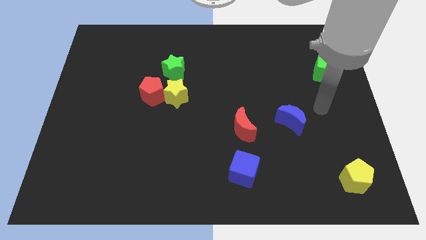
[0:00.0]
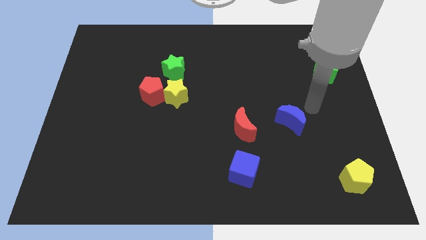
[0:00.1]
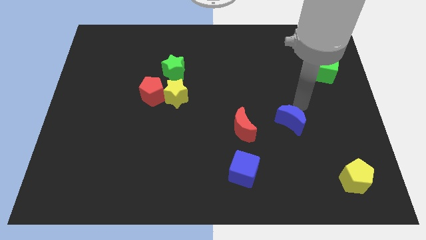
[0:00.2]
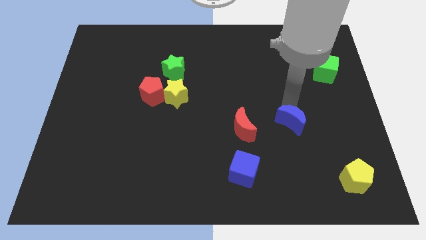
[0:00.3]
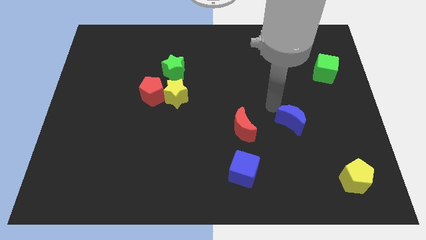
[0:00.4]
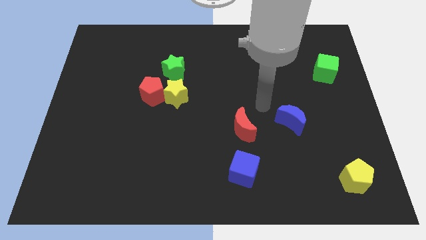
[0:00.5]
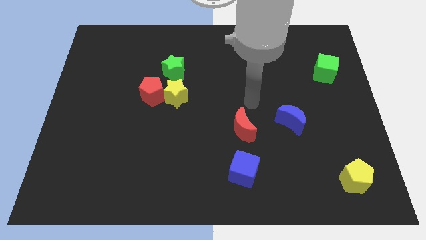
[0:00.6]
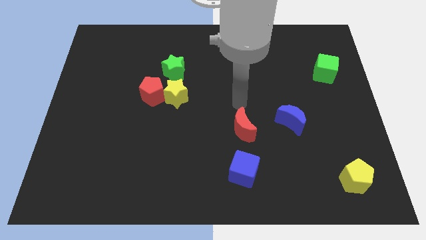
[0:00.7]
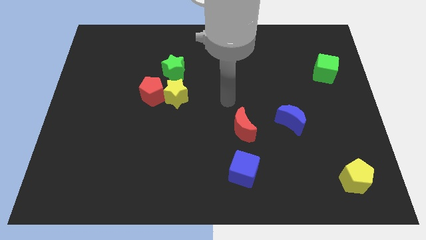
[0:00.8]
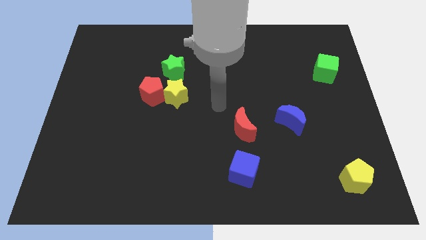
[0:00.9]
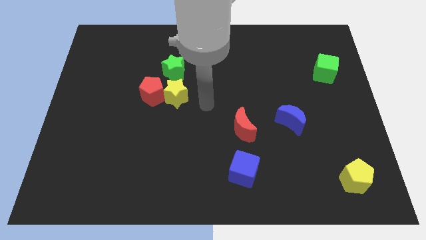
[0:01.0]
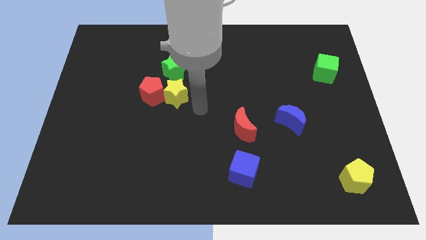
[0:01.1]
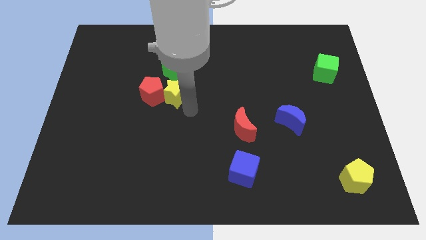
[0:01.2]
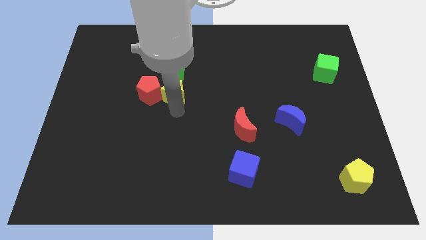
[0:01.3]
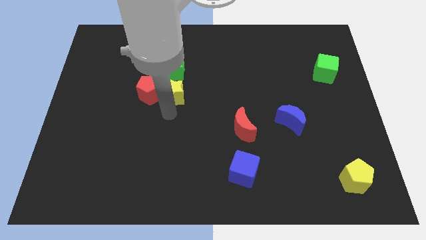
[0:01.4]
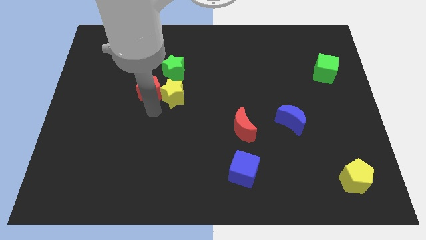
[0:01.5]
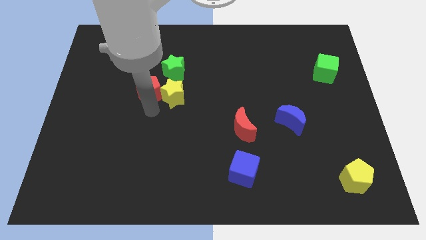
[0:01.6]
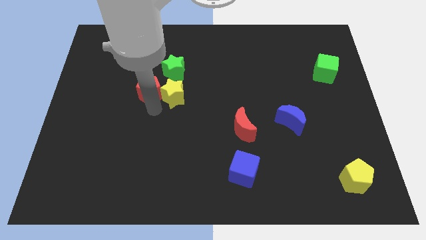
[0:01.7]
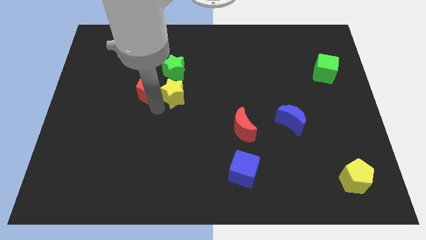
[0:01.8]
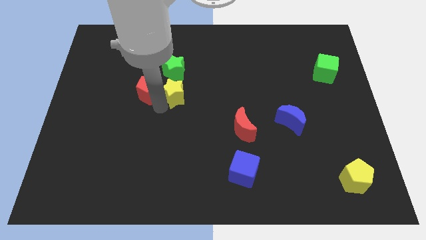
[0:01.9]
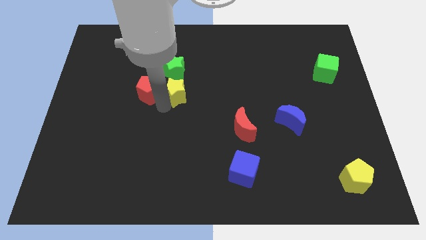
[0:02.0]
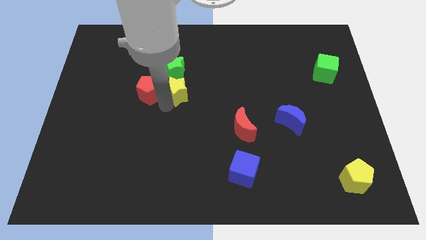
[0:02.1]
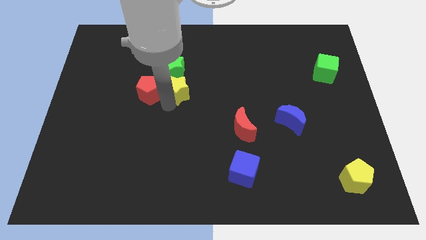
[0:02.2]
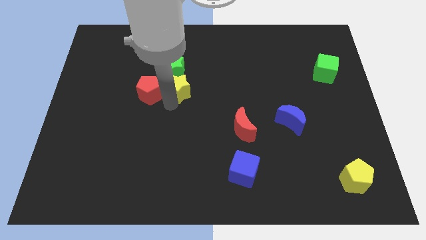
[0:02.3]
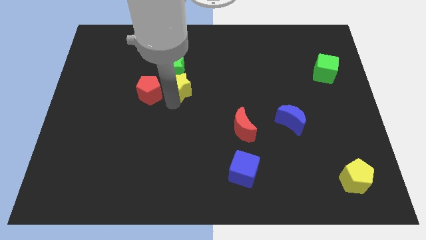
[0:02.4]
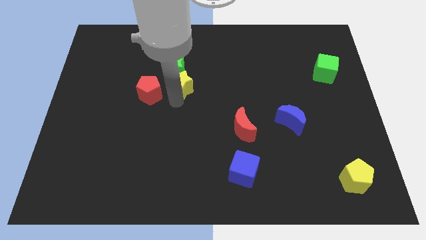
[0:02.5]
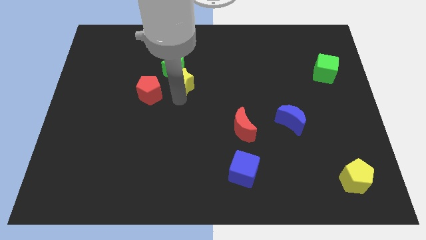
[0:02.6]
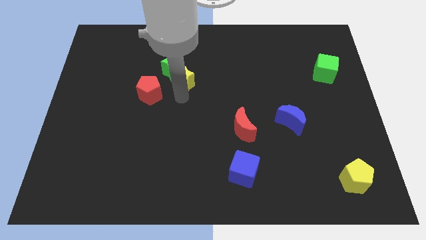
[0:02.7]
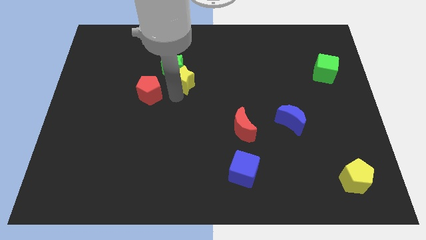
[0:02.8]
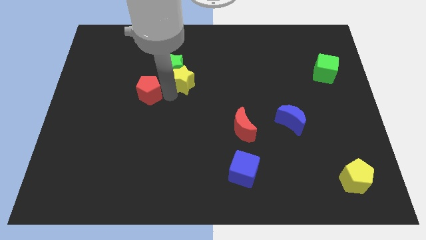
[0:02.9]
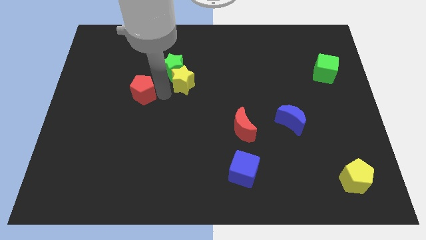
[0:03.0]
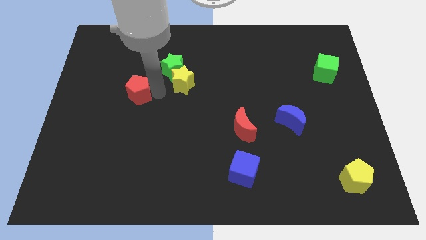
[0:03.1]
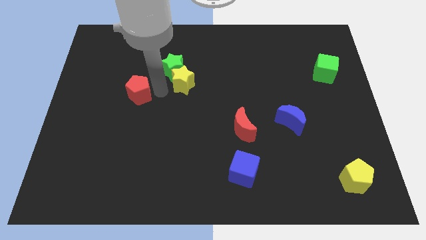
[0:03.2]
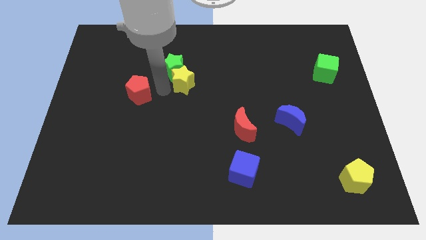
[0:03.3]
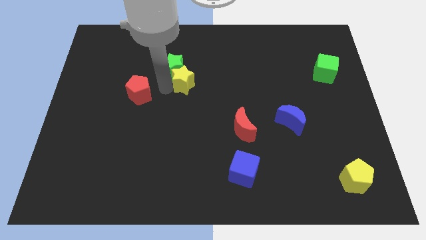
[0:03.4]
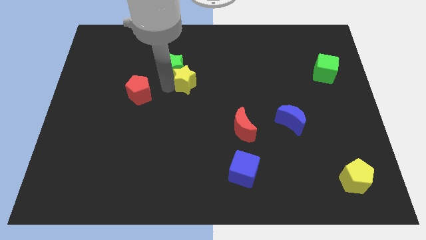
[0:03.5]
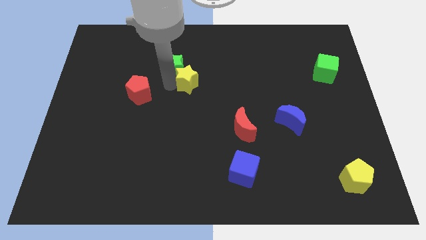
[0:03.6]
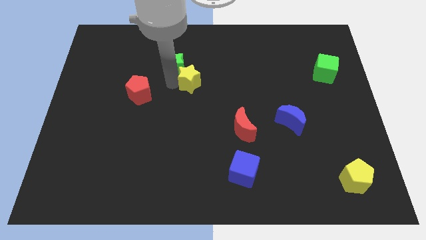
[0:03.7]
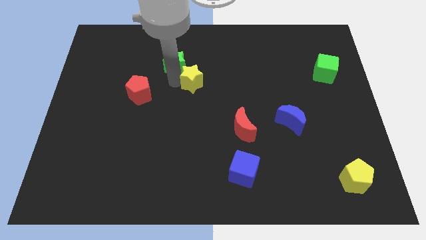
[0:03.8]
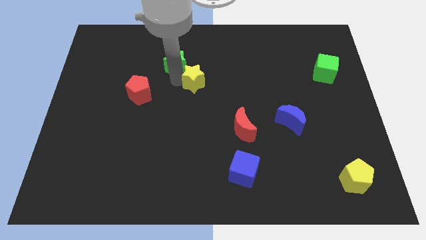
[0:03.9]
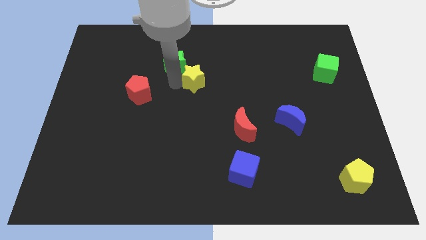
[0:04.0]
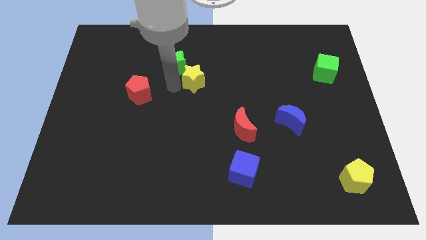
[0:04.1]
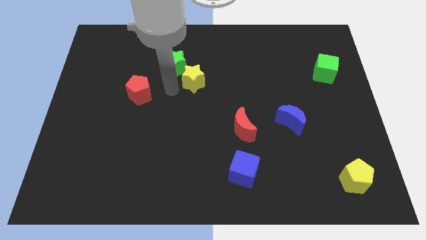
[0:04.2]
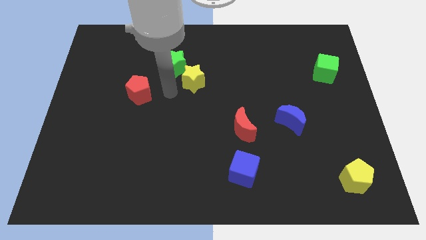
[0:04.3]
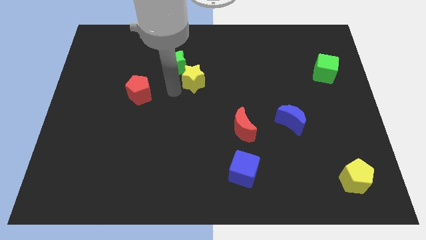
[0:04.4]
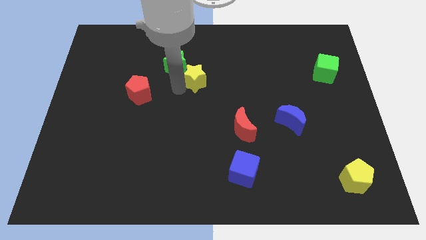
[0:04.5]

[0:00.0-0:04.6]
move the yellow star diagonally up and right slightly

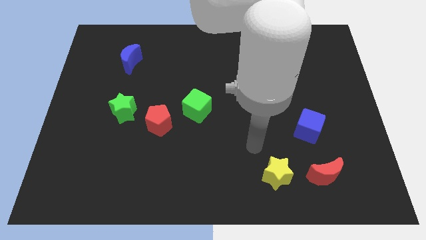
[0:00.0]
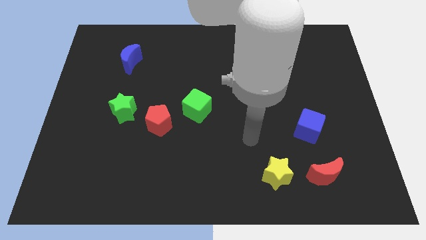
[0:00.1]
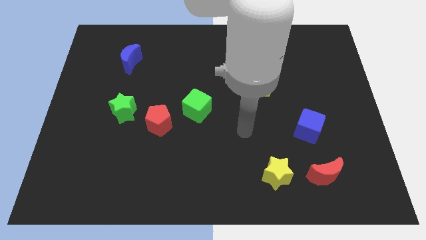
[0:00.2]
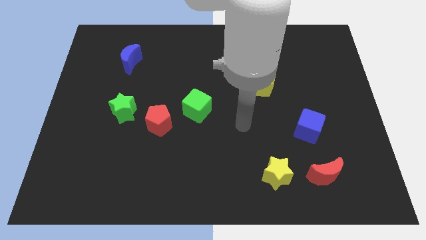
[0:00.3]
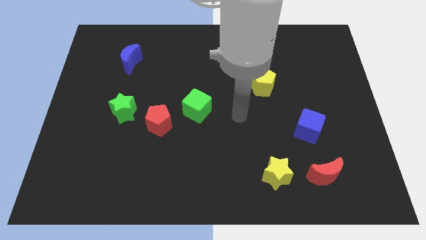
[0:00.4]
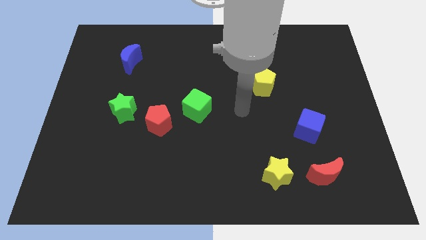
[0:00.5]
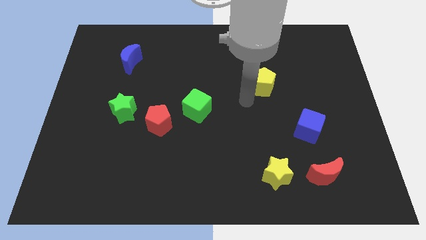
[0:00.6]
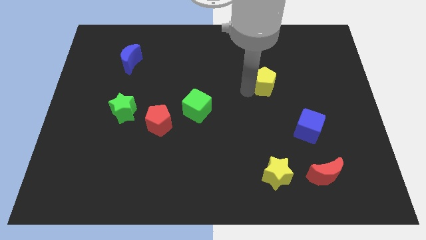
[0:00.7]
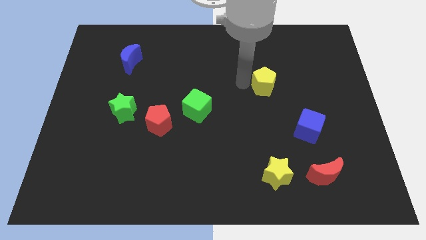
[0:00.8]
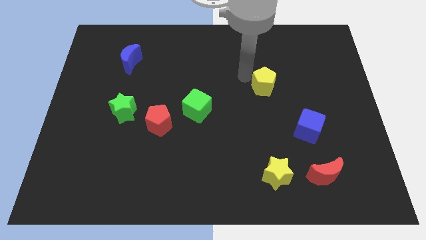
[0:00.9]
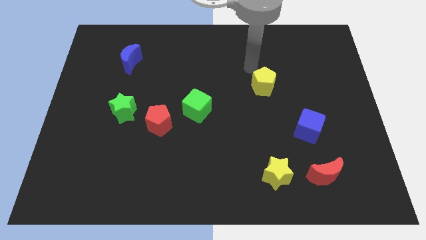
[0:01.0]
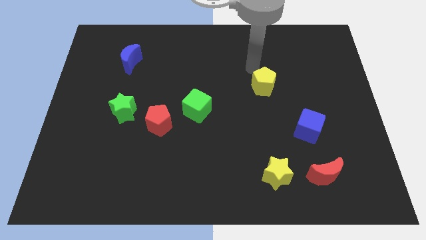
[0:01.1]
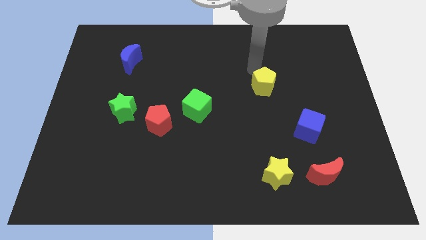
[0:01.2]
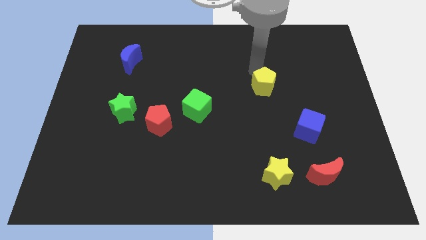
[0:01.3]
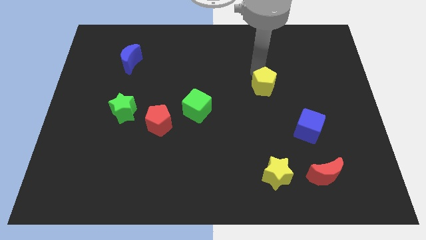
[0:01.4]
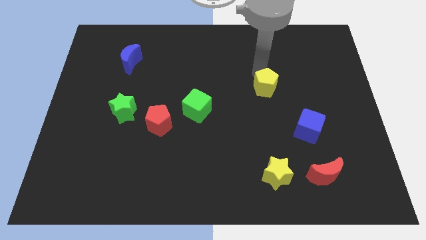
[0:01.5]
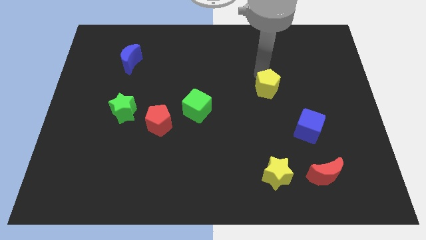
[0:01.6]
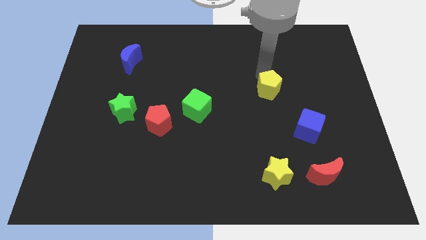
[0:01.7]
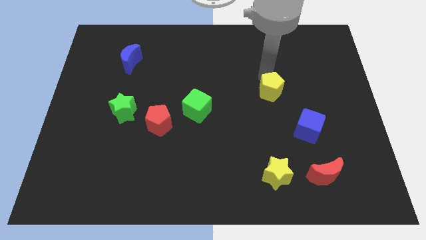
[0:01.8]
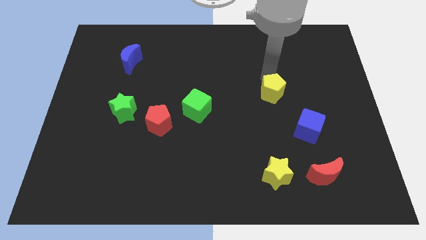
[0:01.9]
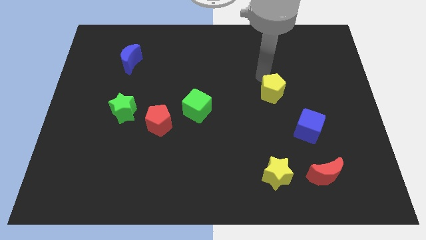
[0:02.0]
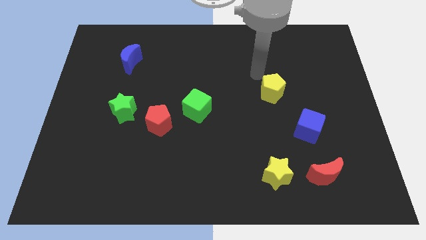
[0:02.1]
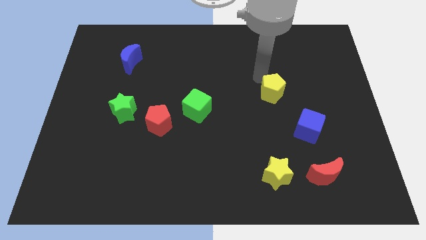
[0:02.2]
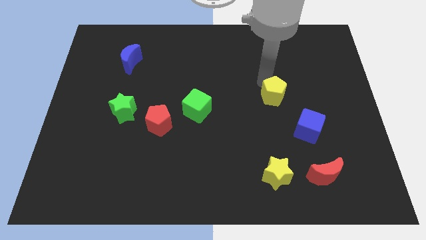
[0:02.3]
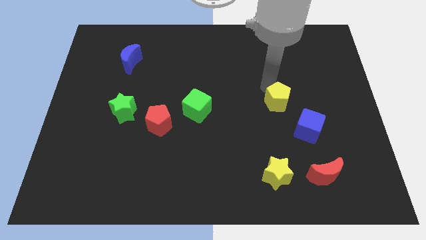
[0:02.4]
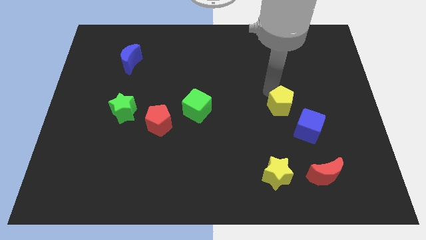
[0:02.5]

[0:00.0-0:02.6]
move the yellow pentagon a bit downwards and right

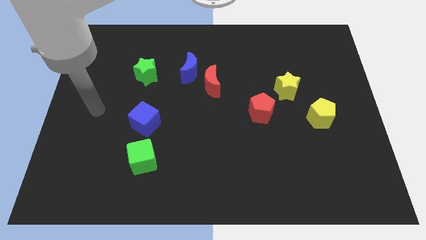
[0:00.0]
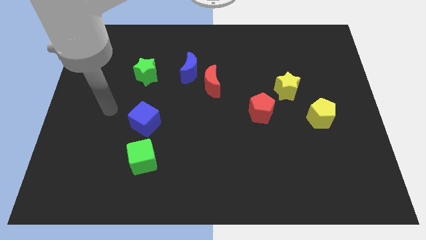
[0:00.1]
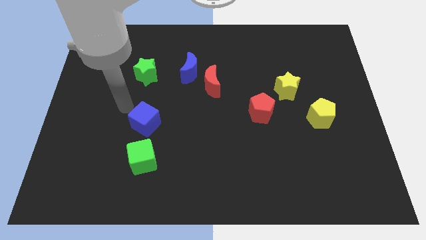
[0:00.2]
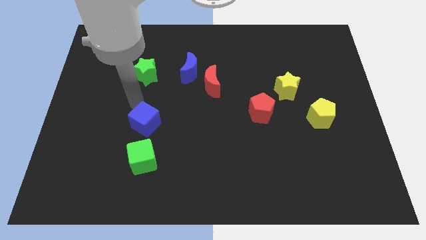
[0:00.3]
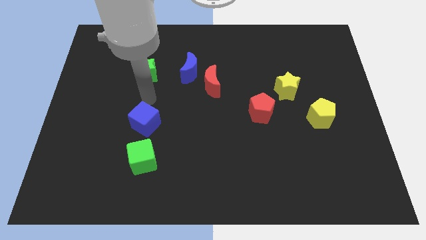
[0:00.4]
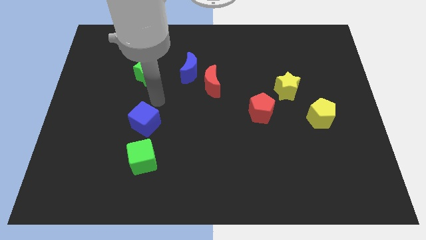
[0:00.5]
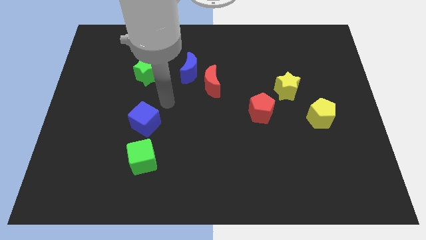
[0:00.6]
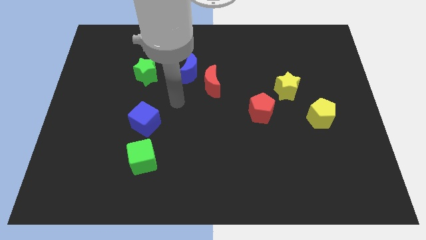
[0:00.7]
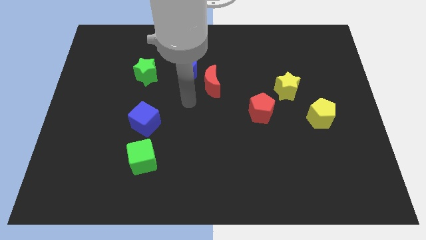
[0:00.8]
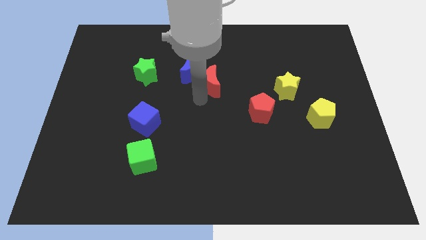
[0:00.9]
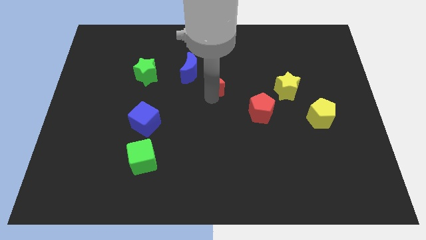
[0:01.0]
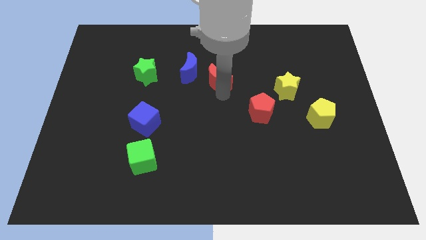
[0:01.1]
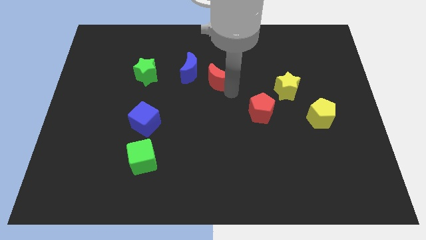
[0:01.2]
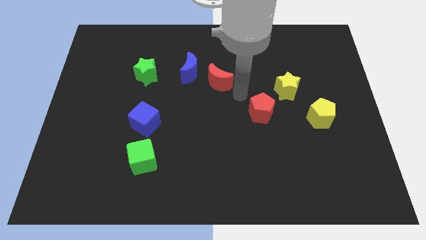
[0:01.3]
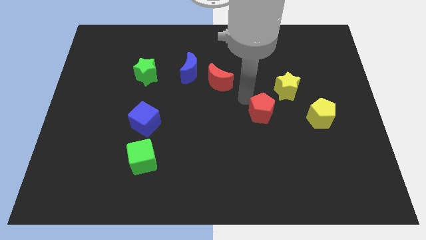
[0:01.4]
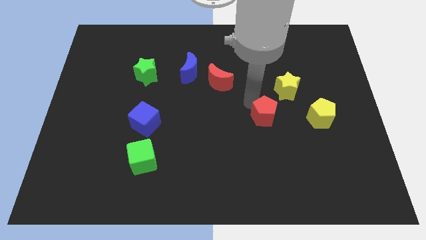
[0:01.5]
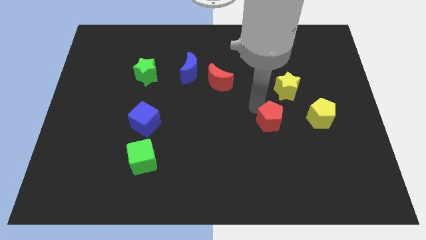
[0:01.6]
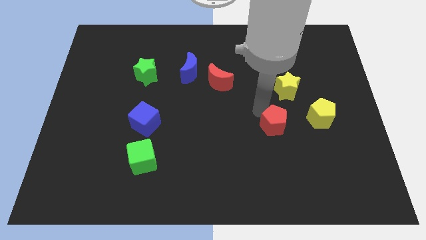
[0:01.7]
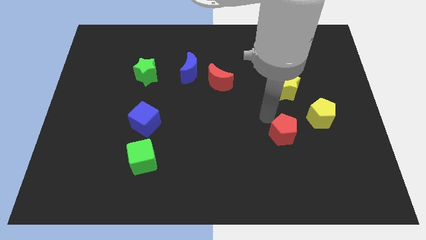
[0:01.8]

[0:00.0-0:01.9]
push the red pentagon a little bit down and right diagonally
